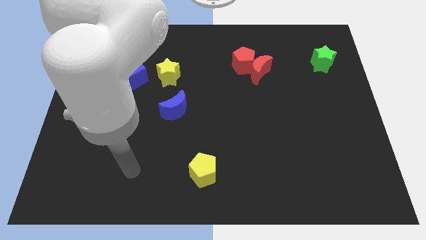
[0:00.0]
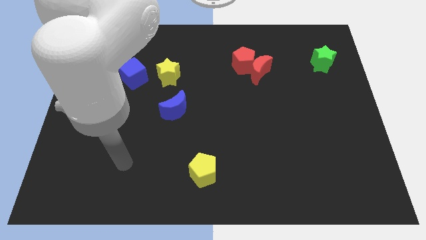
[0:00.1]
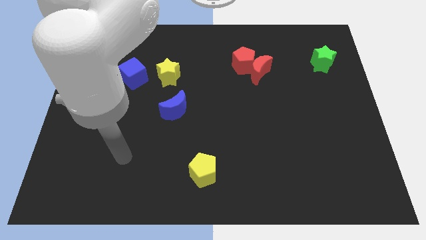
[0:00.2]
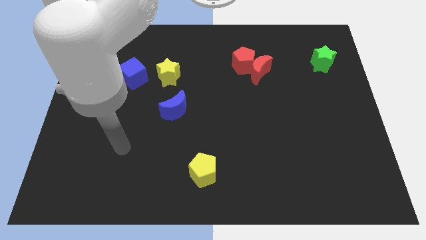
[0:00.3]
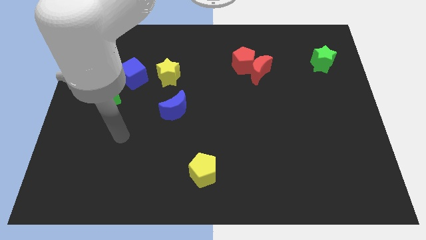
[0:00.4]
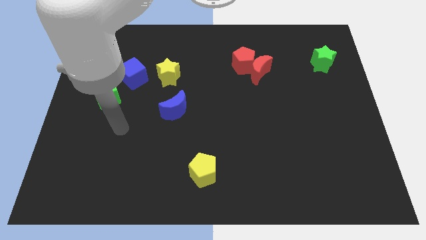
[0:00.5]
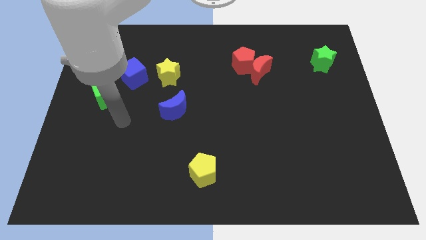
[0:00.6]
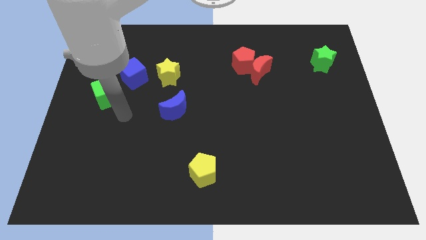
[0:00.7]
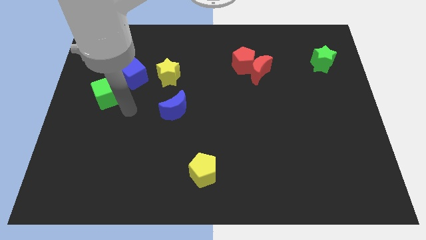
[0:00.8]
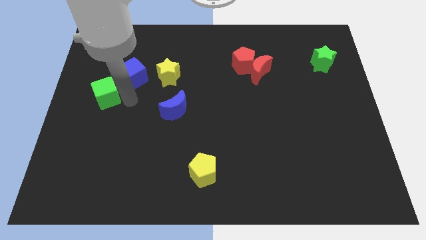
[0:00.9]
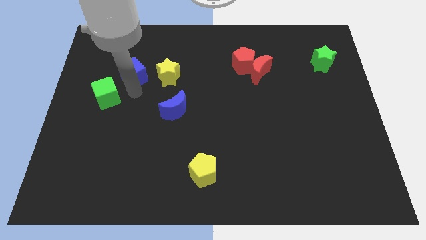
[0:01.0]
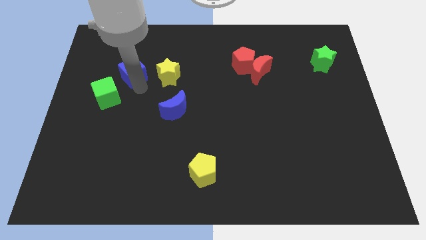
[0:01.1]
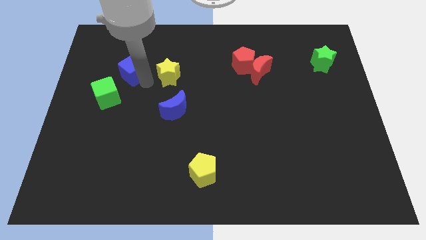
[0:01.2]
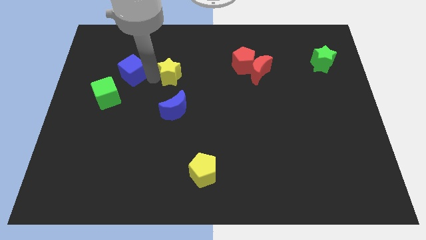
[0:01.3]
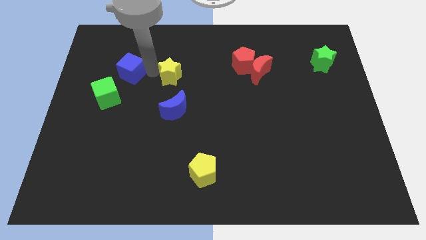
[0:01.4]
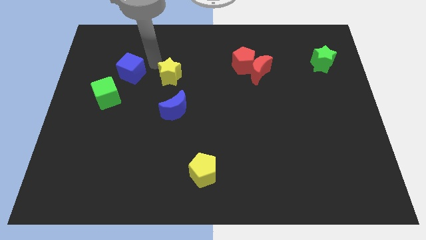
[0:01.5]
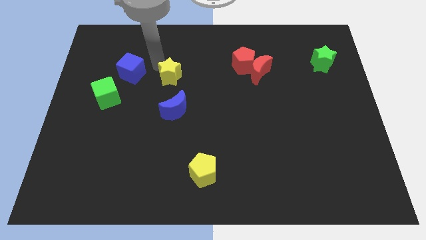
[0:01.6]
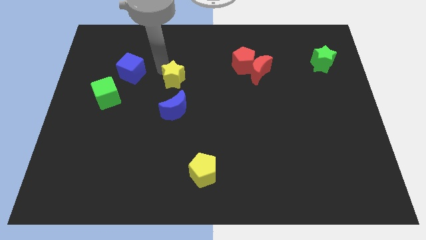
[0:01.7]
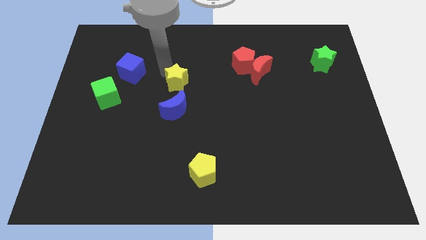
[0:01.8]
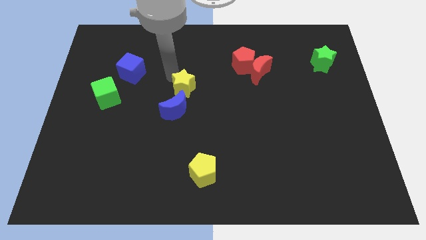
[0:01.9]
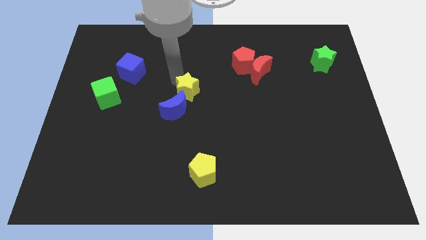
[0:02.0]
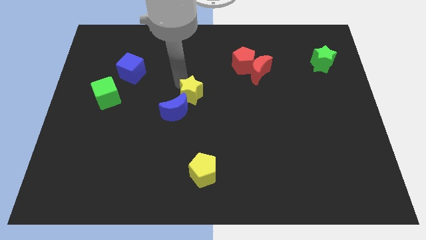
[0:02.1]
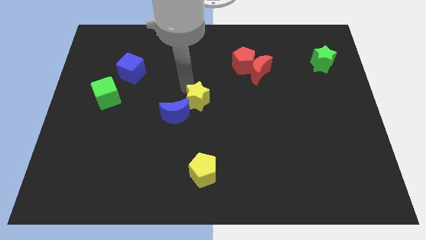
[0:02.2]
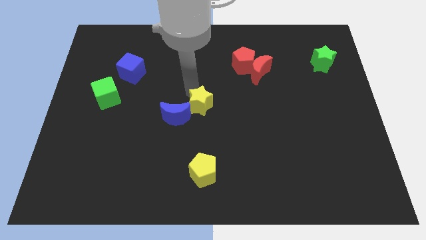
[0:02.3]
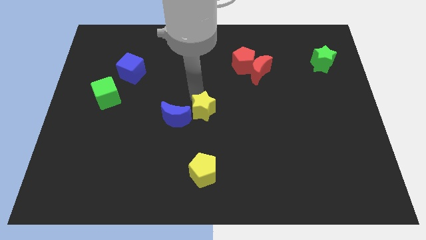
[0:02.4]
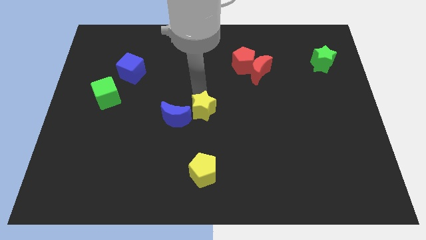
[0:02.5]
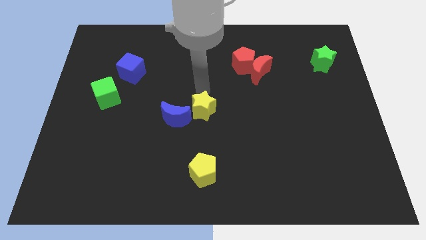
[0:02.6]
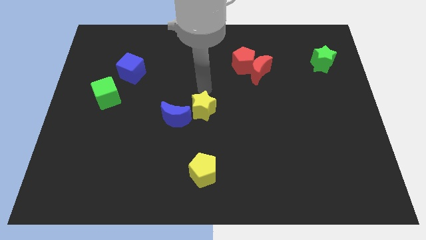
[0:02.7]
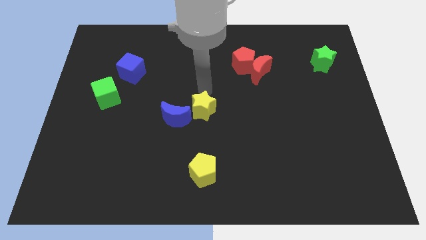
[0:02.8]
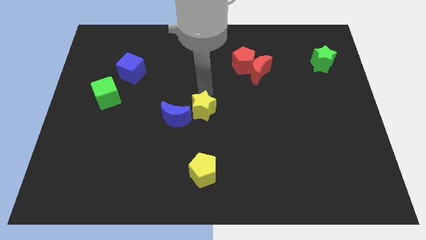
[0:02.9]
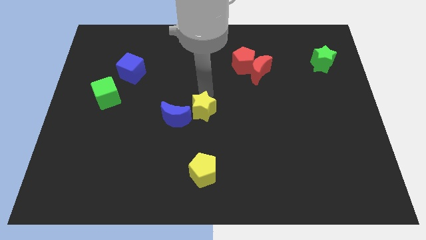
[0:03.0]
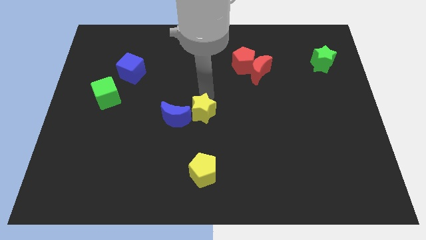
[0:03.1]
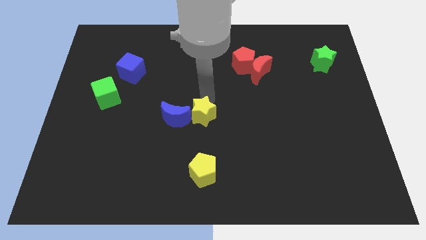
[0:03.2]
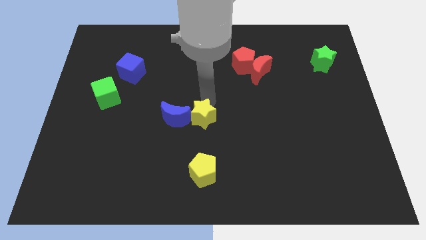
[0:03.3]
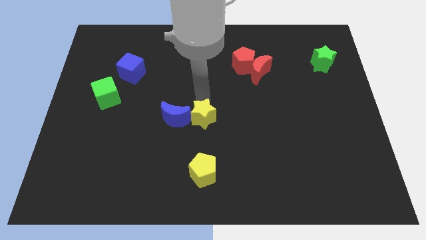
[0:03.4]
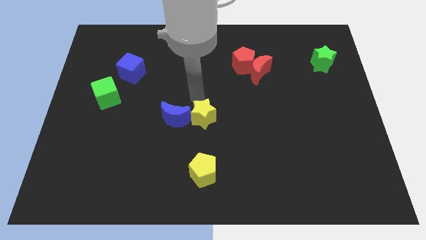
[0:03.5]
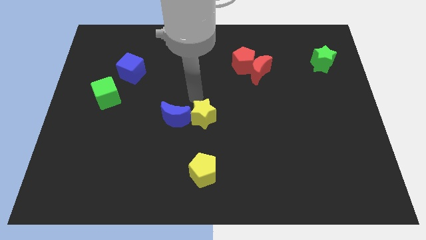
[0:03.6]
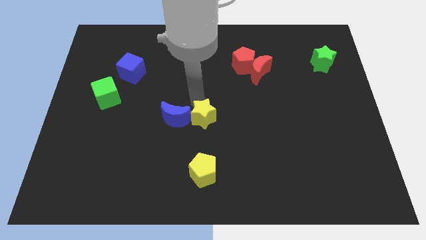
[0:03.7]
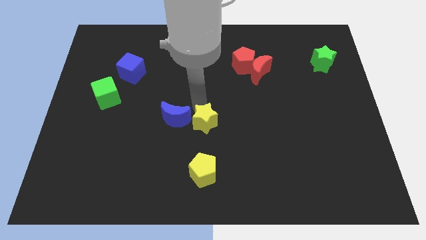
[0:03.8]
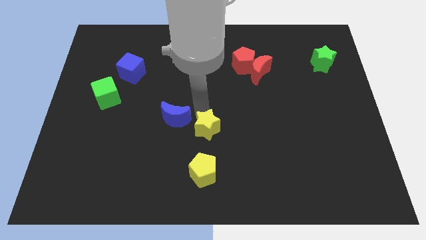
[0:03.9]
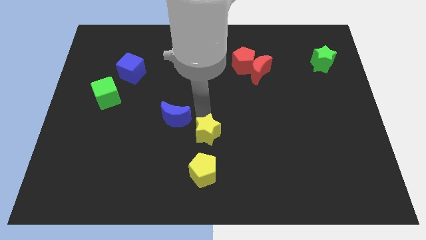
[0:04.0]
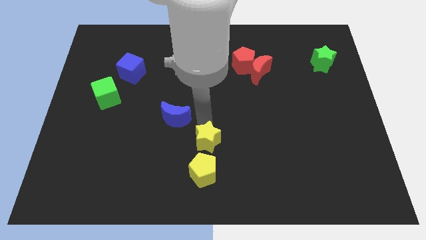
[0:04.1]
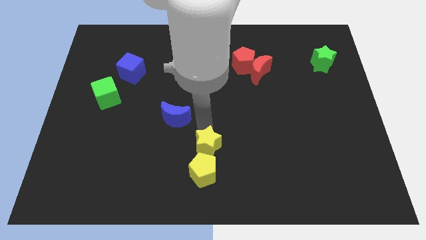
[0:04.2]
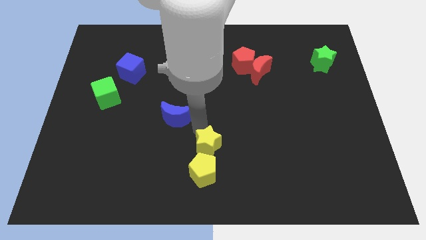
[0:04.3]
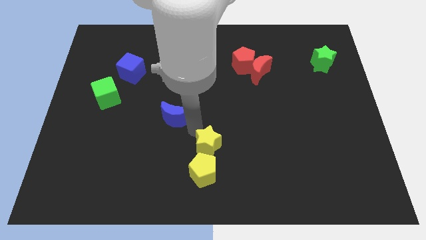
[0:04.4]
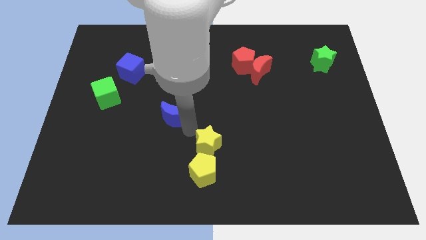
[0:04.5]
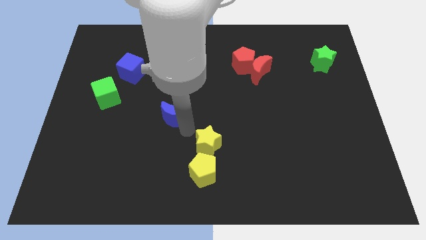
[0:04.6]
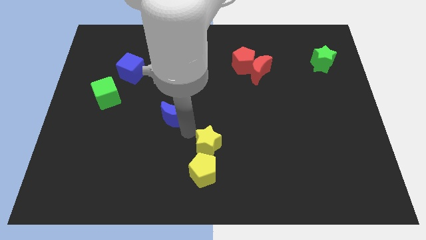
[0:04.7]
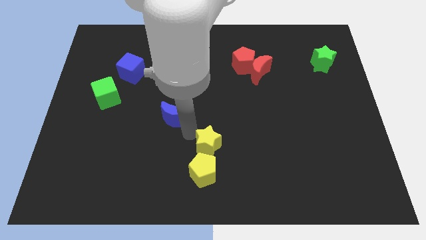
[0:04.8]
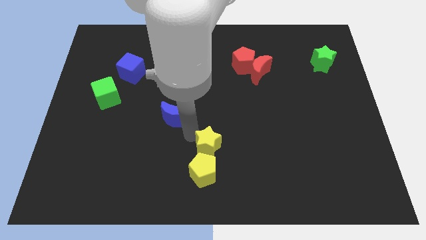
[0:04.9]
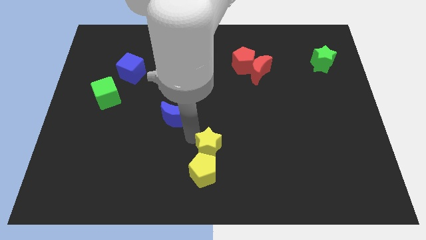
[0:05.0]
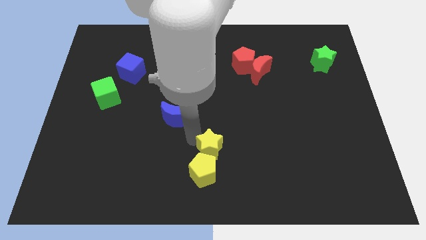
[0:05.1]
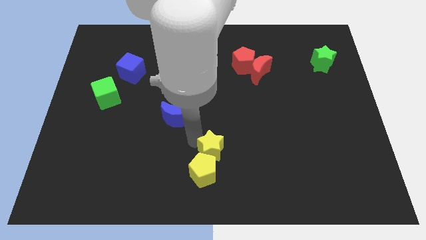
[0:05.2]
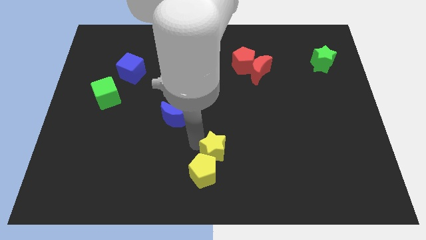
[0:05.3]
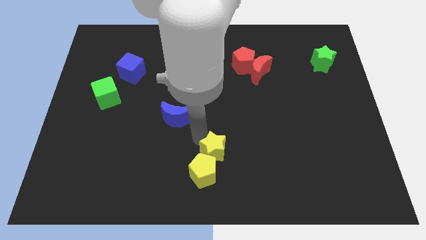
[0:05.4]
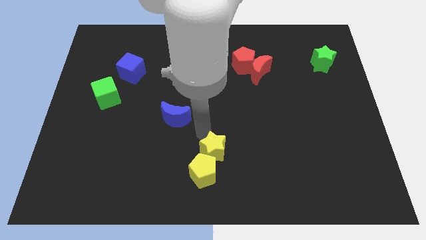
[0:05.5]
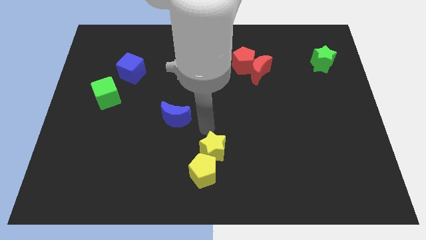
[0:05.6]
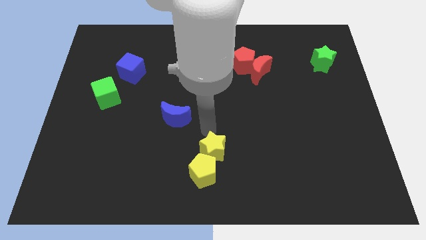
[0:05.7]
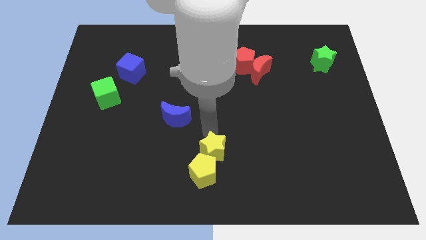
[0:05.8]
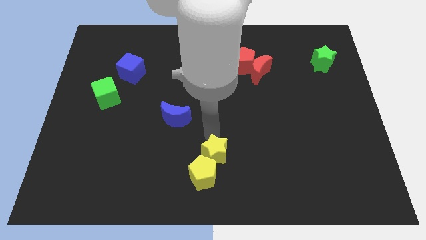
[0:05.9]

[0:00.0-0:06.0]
slide the yellow star to the bottom side

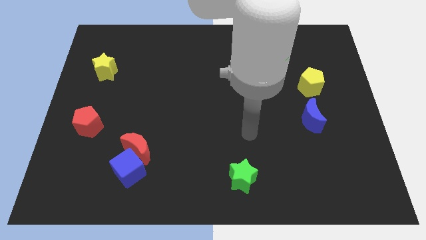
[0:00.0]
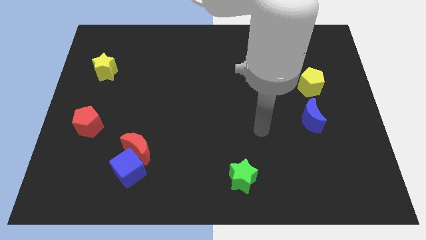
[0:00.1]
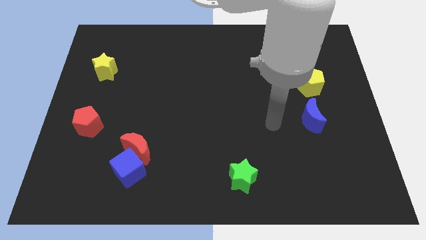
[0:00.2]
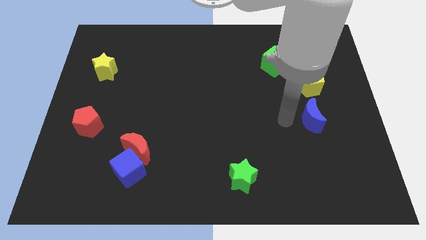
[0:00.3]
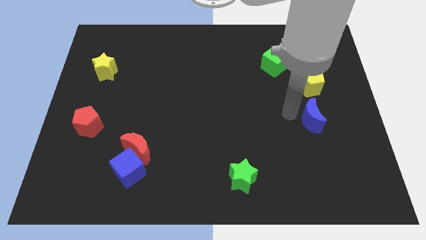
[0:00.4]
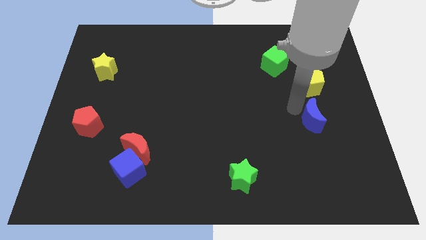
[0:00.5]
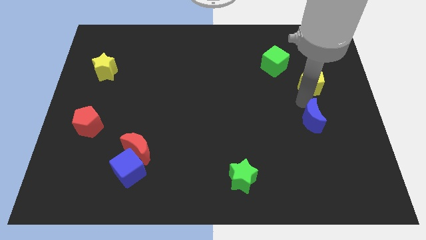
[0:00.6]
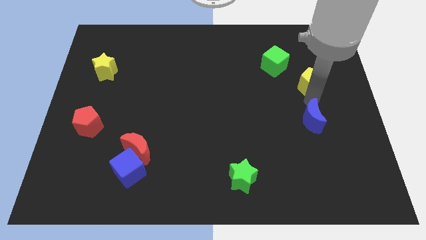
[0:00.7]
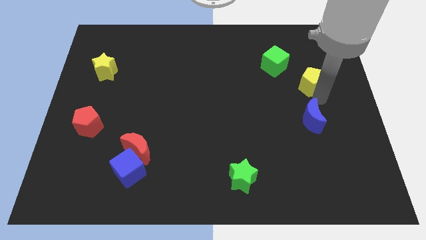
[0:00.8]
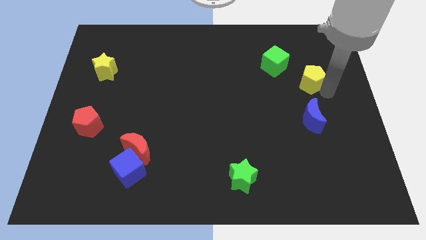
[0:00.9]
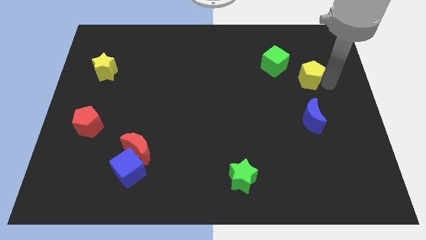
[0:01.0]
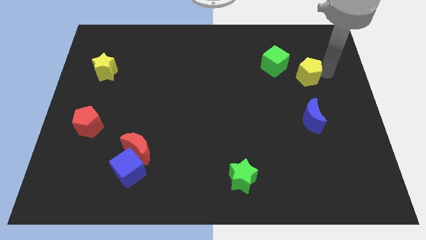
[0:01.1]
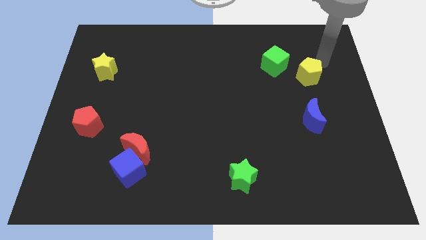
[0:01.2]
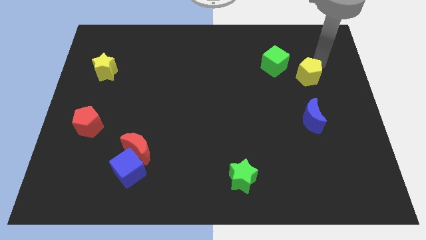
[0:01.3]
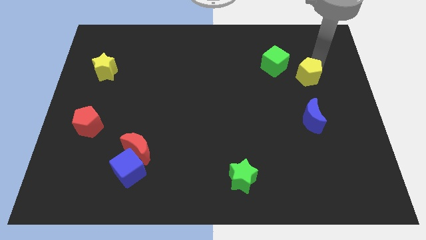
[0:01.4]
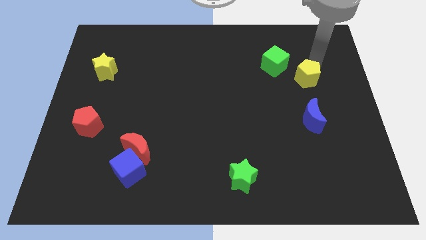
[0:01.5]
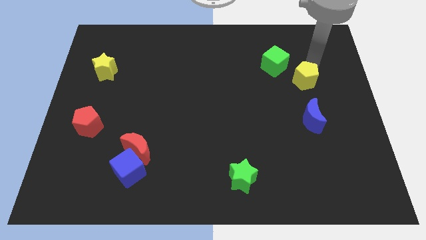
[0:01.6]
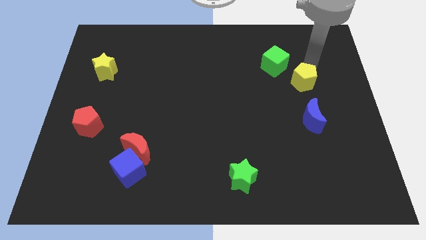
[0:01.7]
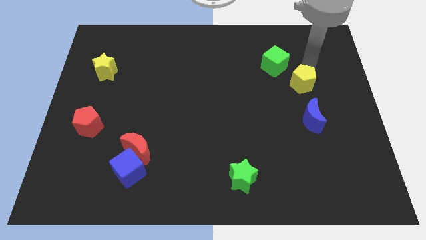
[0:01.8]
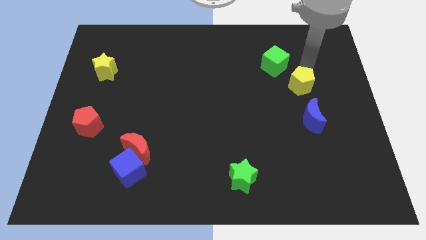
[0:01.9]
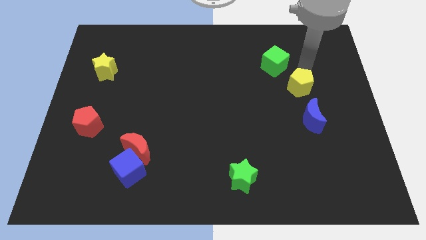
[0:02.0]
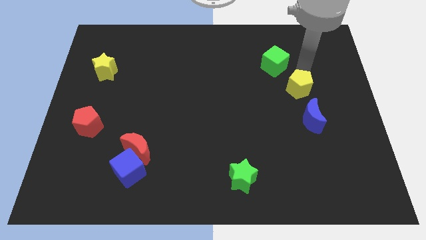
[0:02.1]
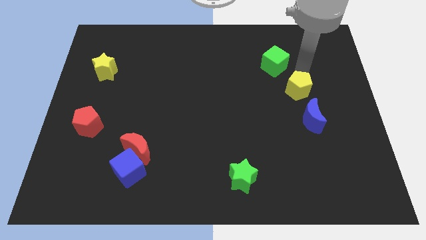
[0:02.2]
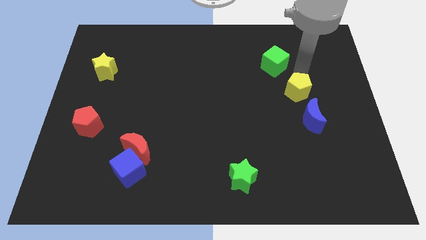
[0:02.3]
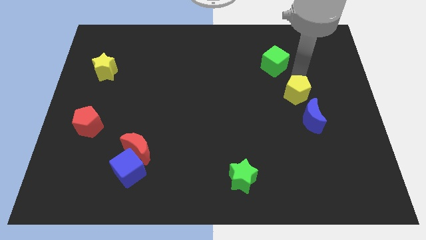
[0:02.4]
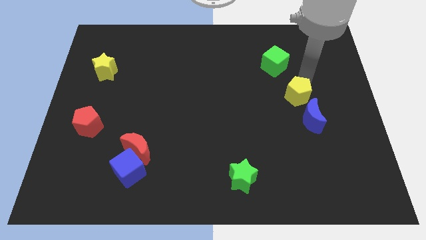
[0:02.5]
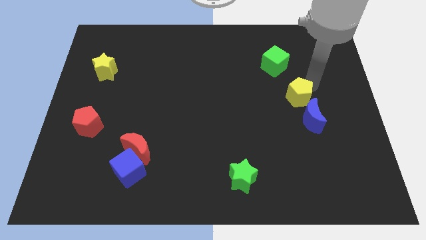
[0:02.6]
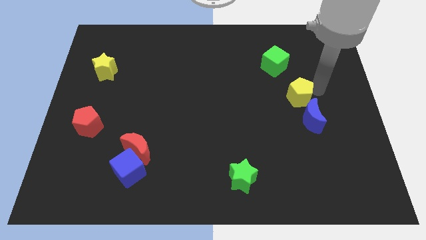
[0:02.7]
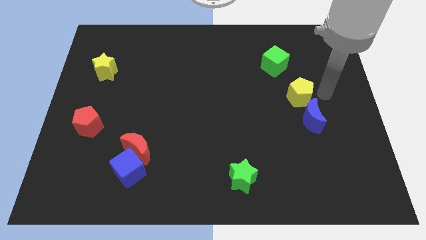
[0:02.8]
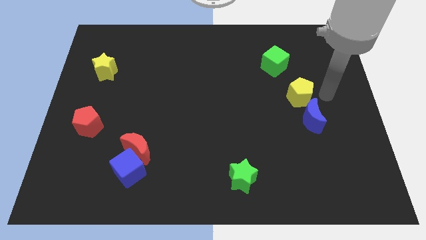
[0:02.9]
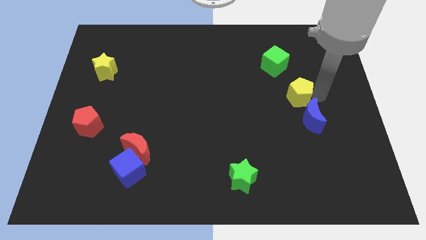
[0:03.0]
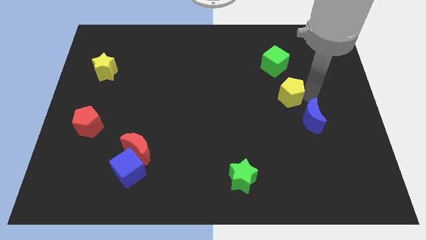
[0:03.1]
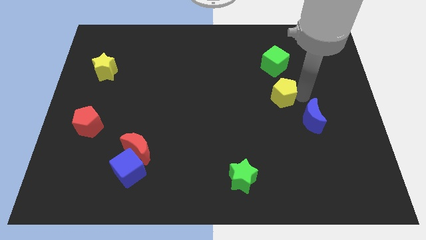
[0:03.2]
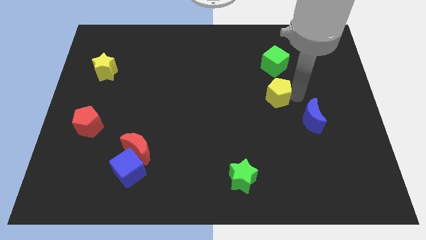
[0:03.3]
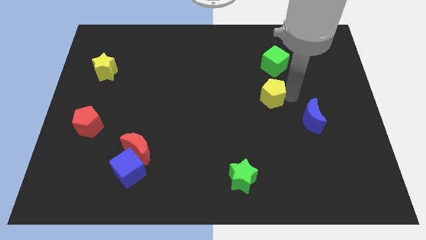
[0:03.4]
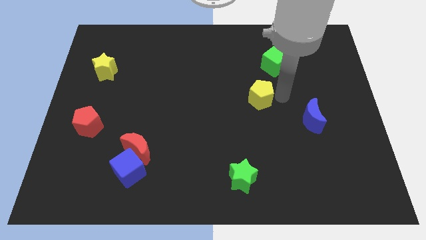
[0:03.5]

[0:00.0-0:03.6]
slide the yellow pentagon to the center
